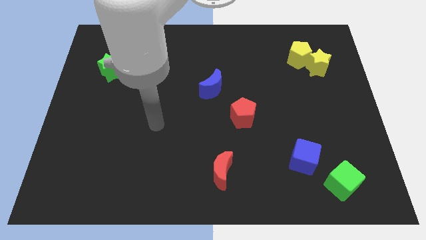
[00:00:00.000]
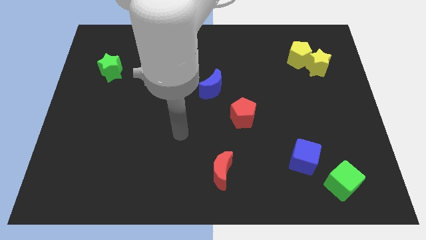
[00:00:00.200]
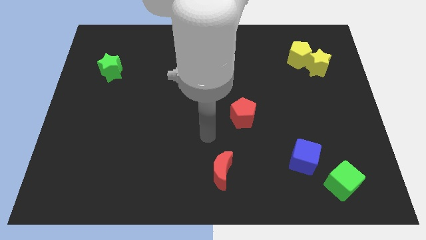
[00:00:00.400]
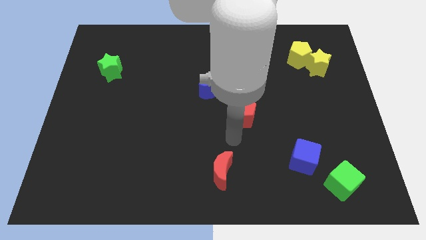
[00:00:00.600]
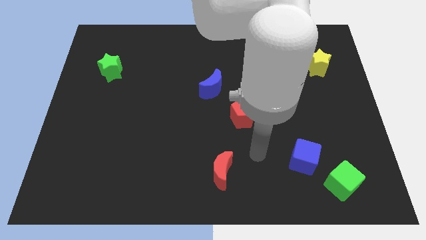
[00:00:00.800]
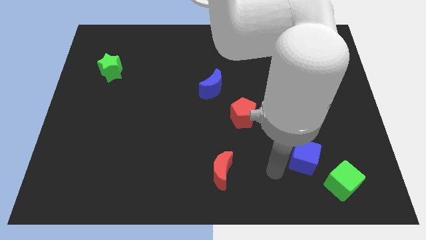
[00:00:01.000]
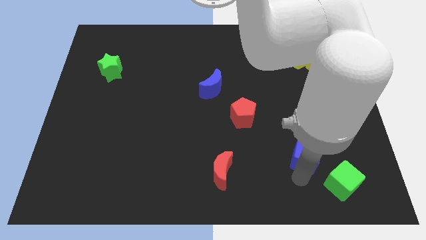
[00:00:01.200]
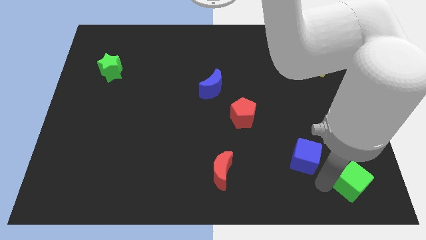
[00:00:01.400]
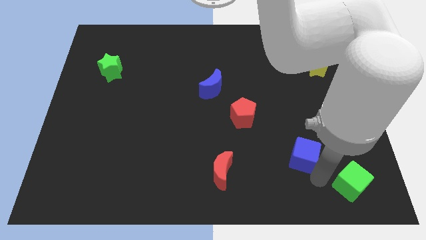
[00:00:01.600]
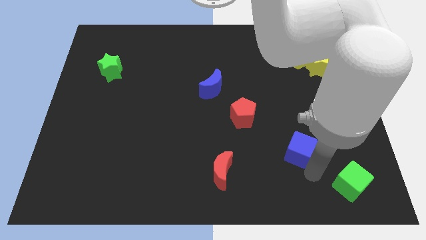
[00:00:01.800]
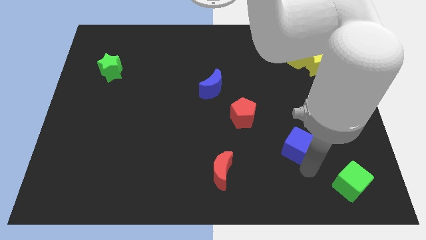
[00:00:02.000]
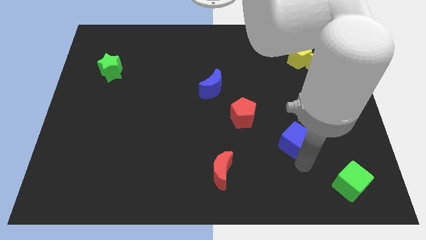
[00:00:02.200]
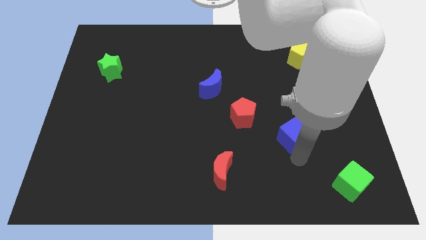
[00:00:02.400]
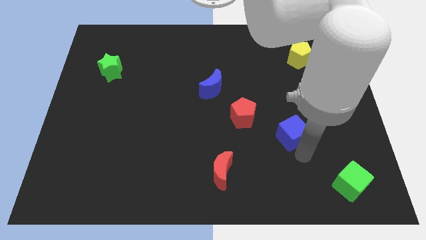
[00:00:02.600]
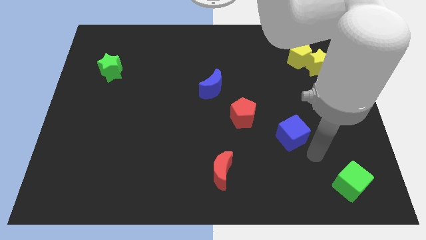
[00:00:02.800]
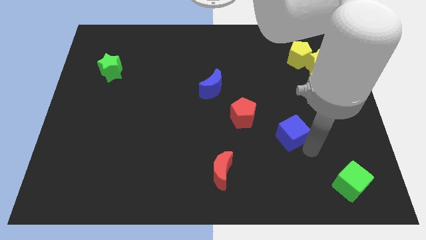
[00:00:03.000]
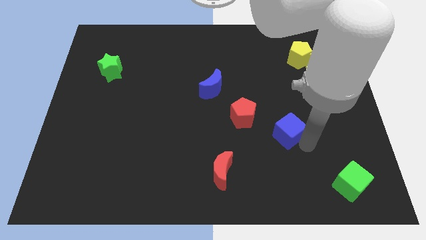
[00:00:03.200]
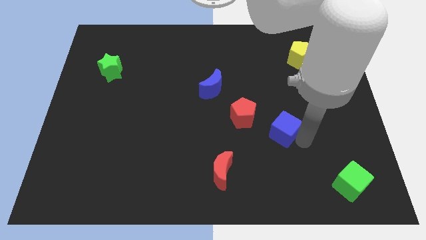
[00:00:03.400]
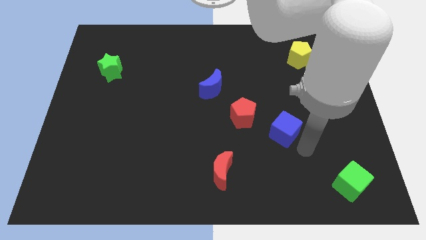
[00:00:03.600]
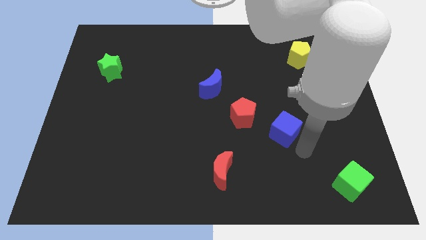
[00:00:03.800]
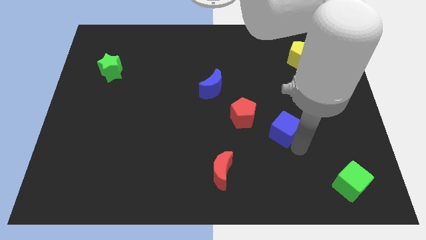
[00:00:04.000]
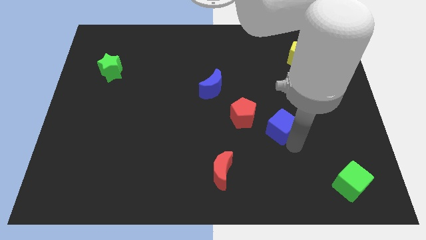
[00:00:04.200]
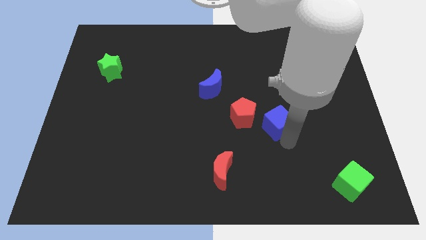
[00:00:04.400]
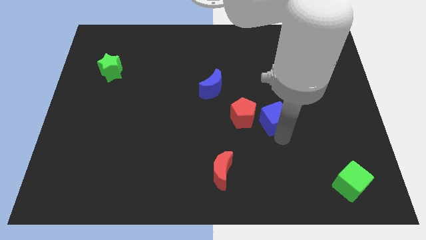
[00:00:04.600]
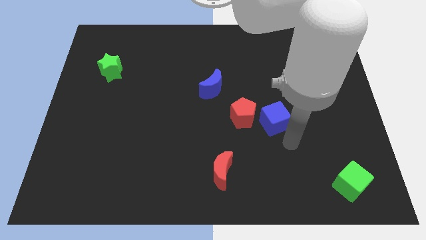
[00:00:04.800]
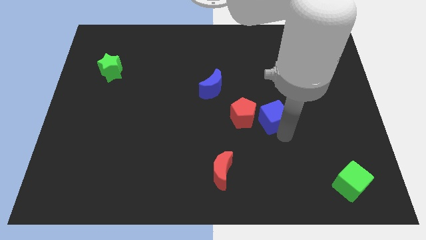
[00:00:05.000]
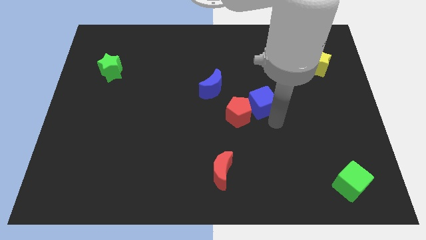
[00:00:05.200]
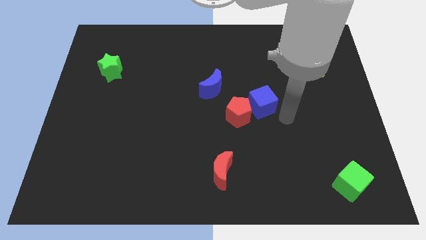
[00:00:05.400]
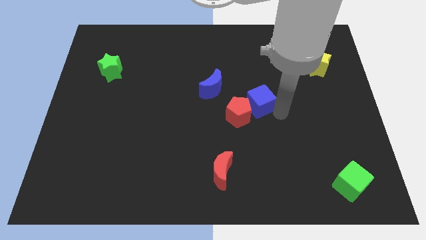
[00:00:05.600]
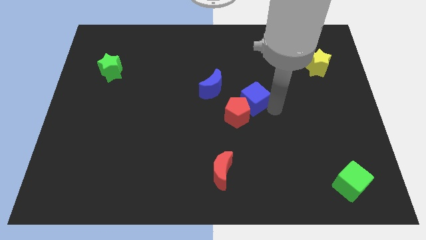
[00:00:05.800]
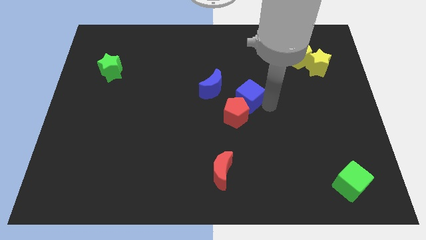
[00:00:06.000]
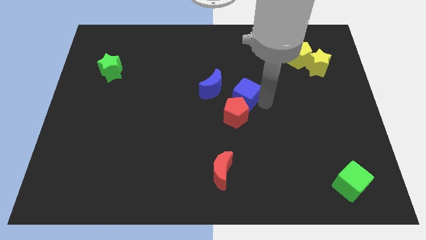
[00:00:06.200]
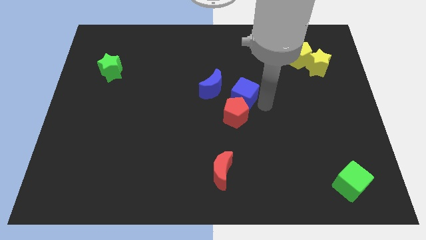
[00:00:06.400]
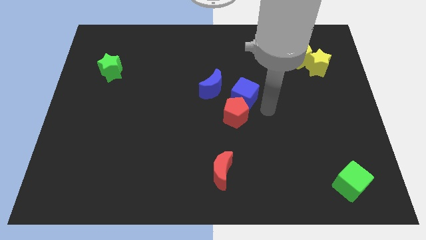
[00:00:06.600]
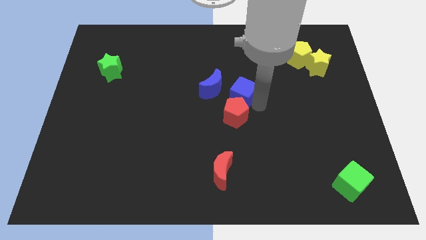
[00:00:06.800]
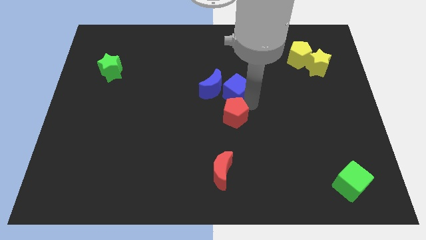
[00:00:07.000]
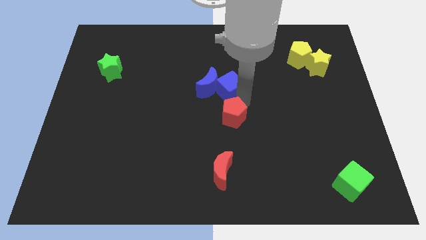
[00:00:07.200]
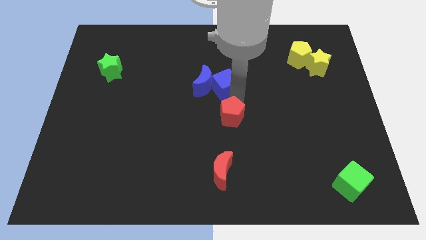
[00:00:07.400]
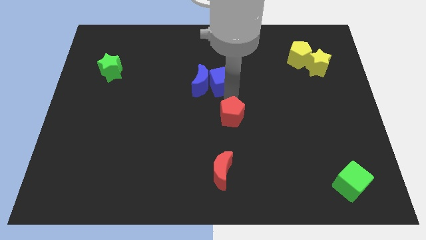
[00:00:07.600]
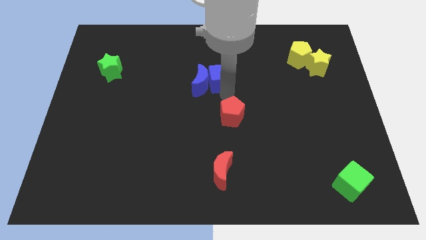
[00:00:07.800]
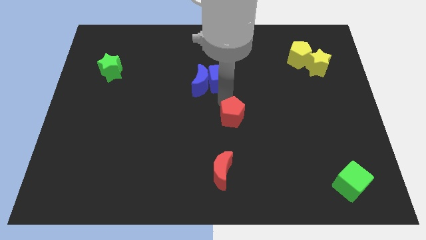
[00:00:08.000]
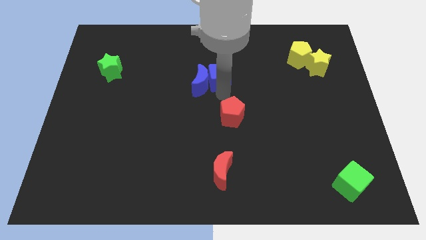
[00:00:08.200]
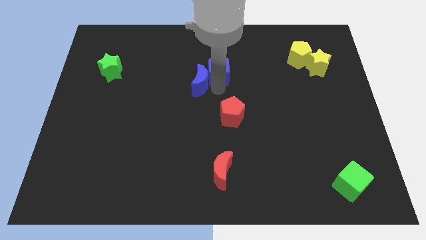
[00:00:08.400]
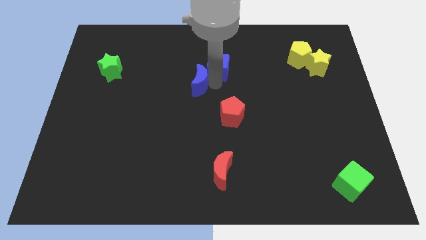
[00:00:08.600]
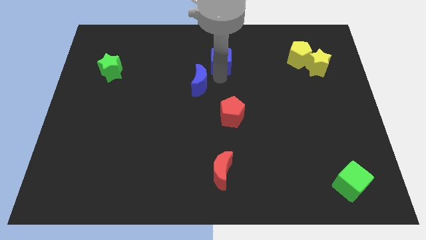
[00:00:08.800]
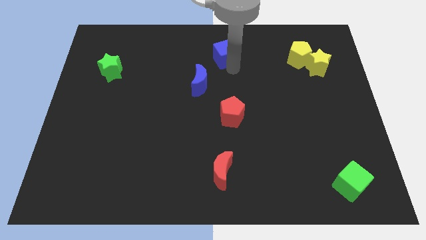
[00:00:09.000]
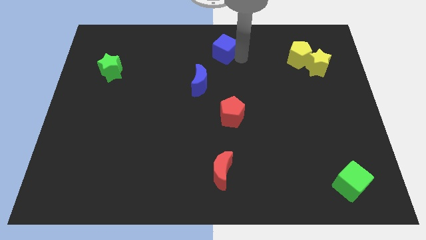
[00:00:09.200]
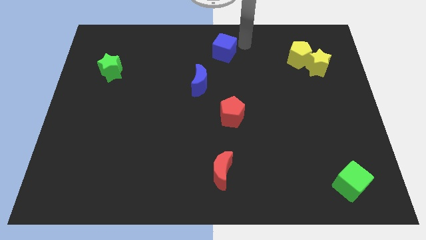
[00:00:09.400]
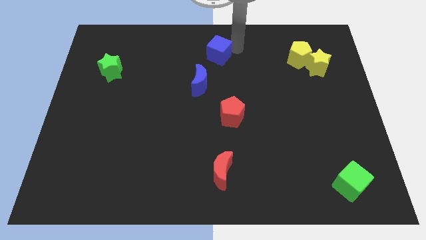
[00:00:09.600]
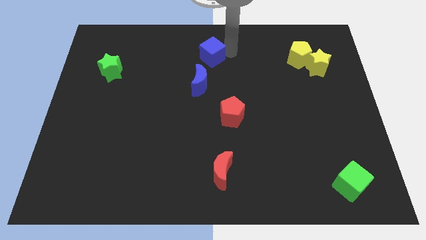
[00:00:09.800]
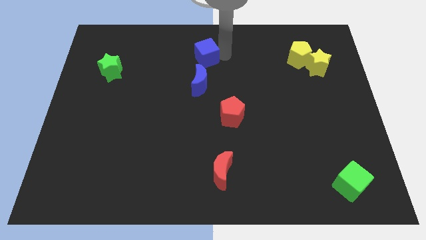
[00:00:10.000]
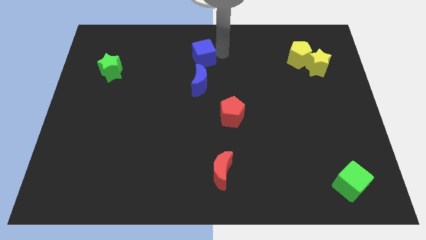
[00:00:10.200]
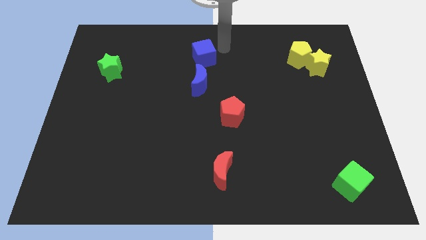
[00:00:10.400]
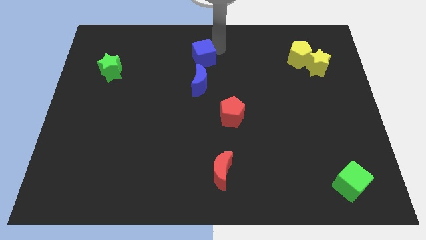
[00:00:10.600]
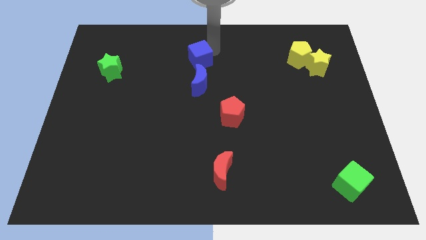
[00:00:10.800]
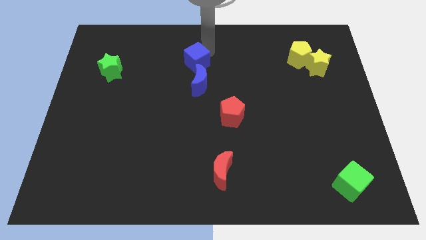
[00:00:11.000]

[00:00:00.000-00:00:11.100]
move the blue cube to the top left side of the blue moon

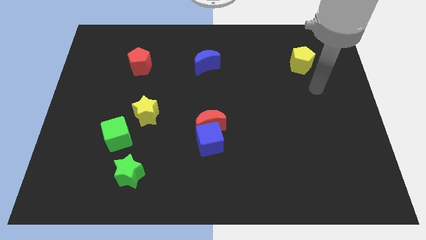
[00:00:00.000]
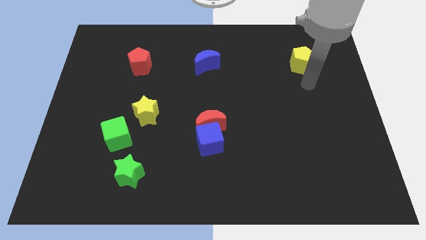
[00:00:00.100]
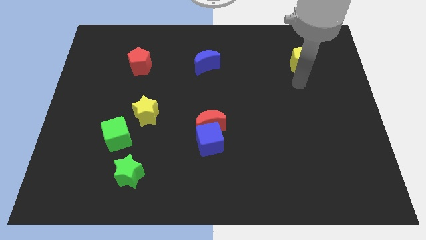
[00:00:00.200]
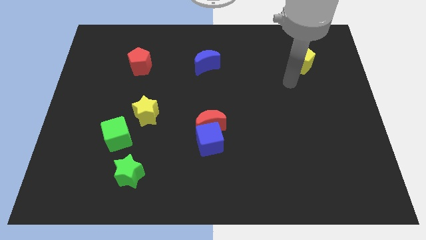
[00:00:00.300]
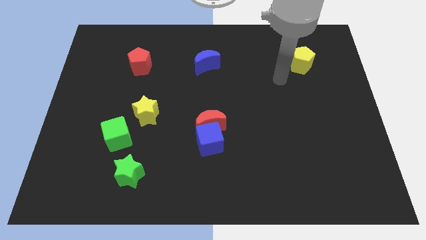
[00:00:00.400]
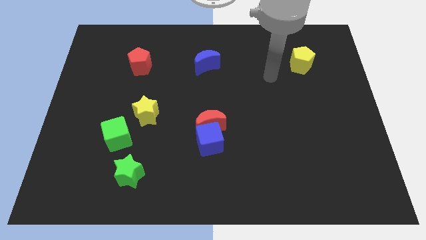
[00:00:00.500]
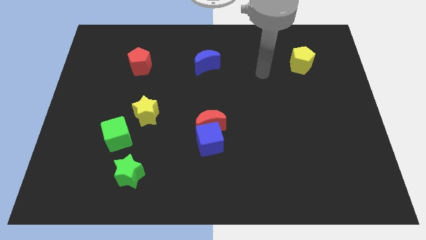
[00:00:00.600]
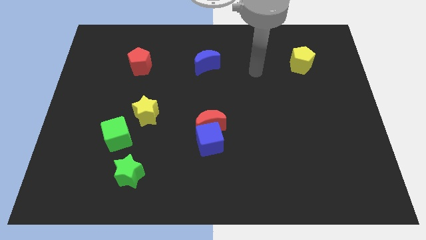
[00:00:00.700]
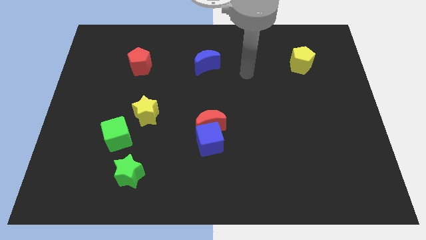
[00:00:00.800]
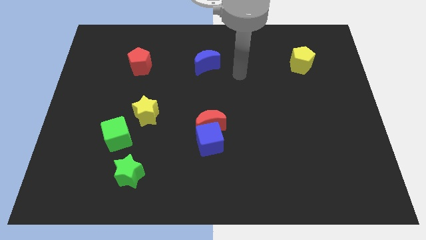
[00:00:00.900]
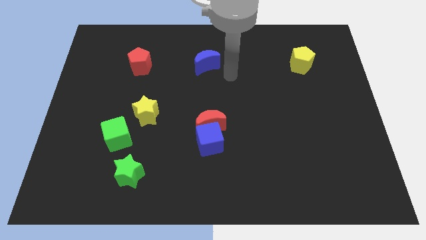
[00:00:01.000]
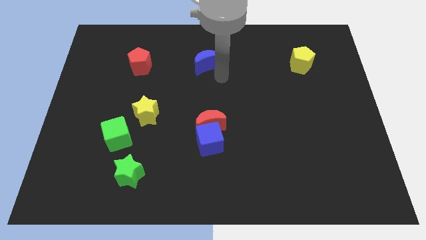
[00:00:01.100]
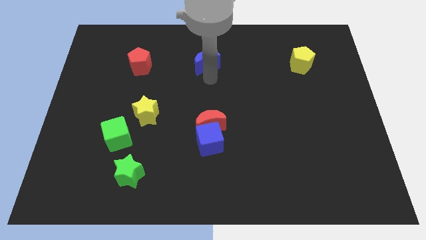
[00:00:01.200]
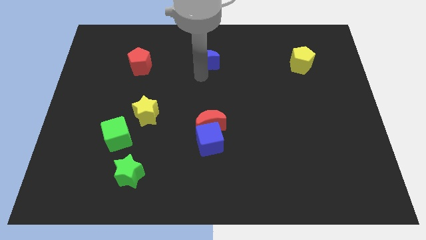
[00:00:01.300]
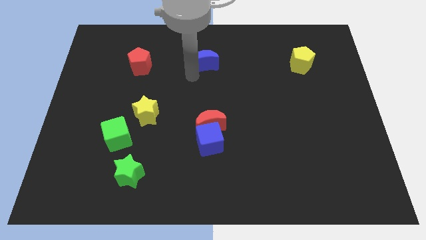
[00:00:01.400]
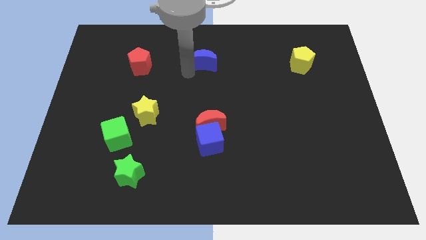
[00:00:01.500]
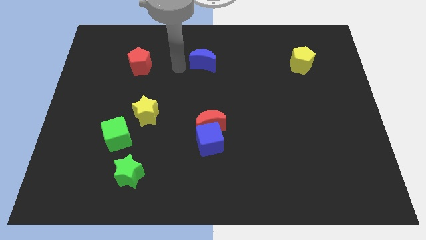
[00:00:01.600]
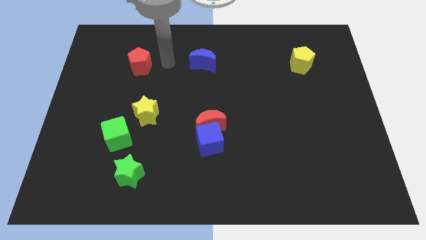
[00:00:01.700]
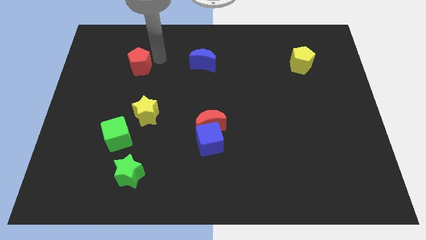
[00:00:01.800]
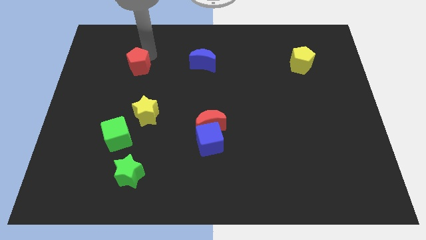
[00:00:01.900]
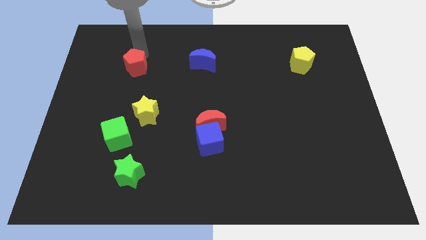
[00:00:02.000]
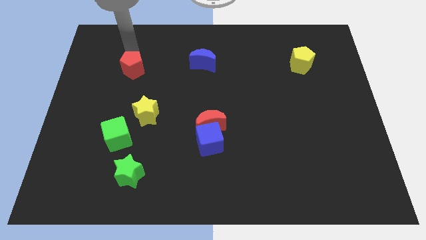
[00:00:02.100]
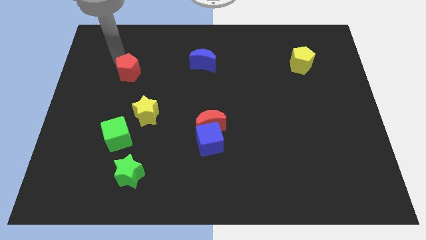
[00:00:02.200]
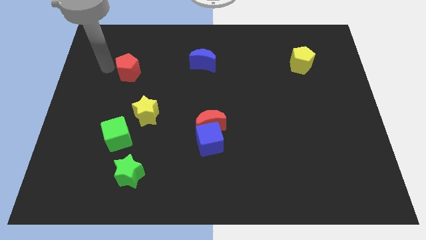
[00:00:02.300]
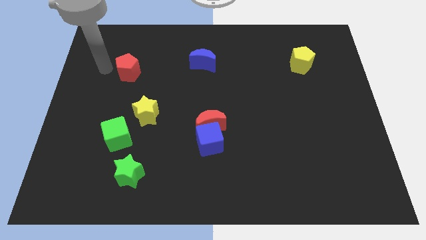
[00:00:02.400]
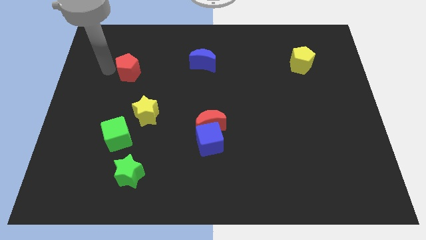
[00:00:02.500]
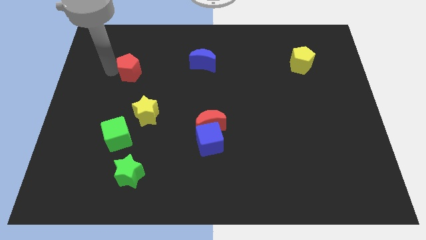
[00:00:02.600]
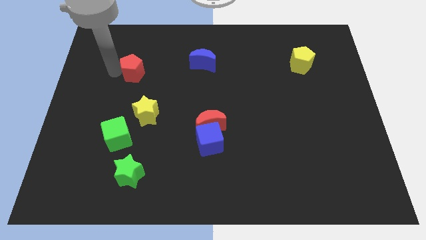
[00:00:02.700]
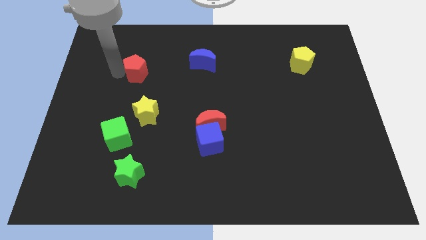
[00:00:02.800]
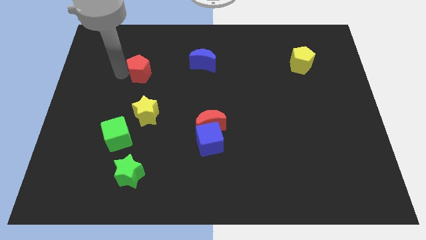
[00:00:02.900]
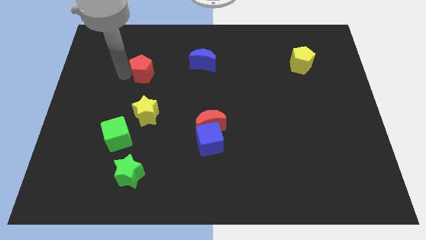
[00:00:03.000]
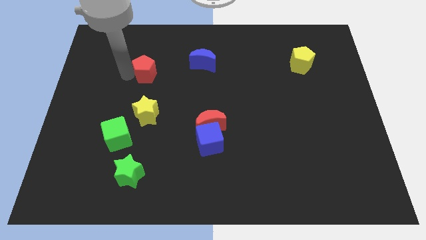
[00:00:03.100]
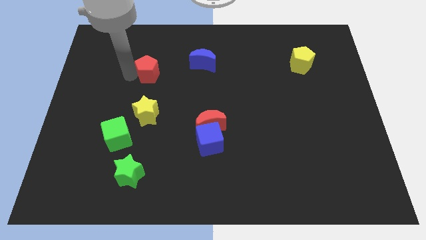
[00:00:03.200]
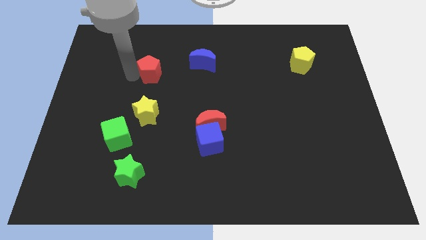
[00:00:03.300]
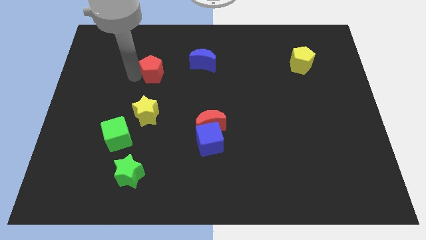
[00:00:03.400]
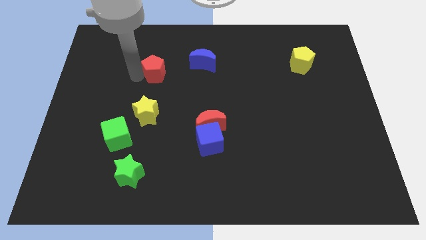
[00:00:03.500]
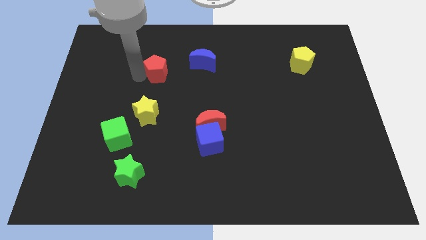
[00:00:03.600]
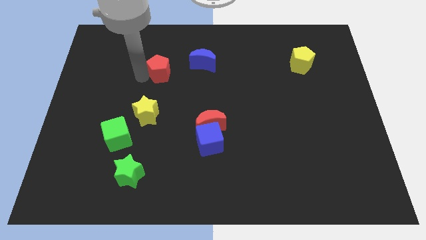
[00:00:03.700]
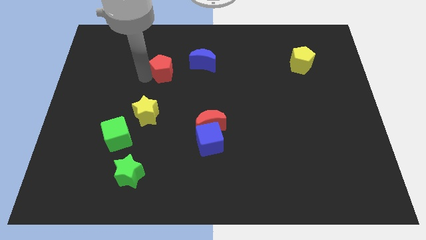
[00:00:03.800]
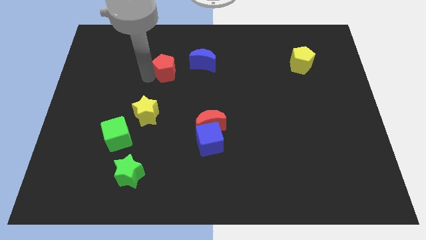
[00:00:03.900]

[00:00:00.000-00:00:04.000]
slide the red pentagon diagonally down and to the left of the blue moon
